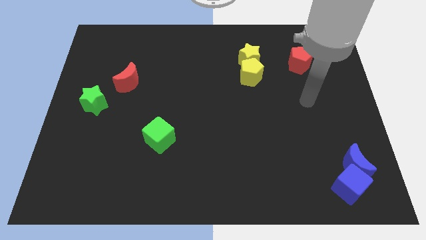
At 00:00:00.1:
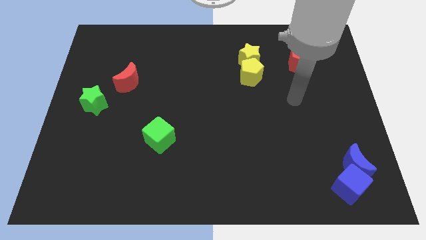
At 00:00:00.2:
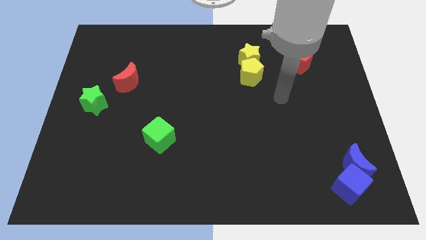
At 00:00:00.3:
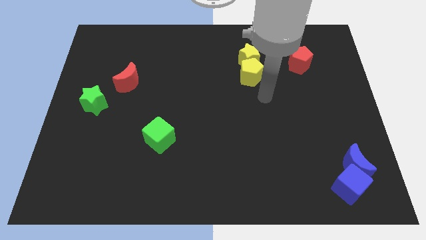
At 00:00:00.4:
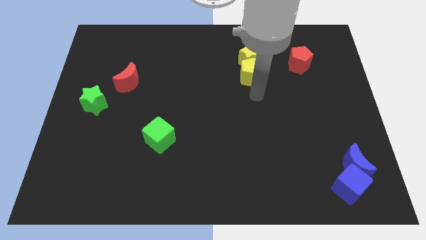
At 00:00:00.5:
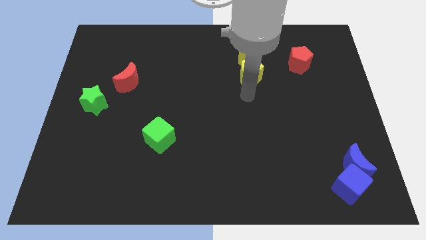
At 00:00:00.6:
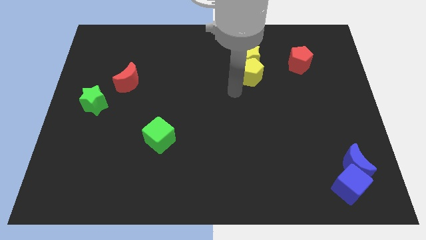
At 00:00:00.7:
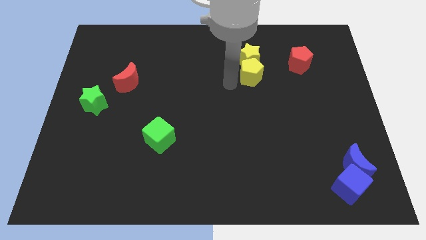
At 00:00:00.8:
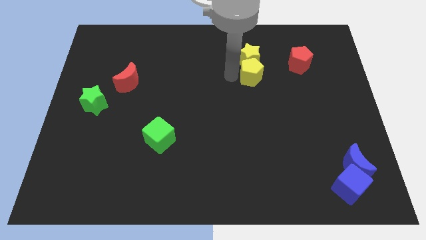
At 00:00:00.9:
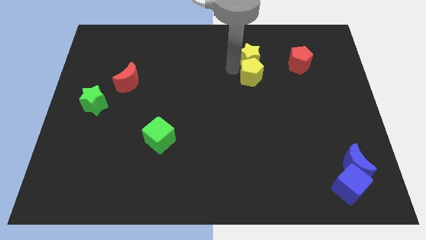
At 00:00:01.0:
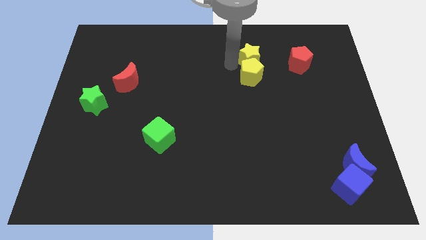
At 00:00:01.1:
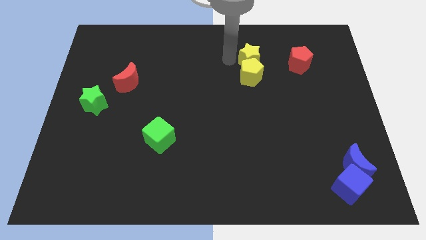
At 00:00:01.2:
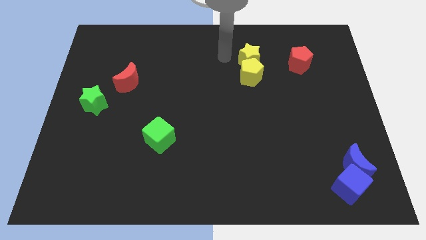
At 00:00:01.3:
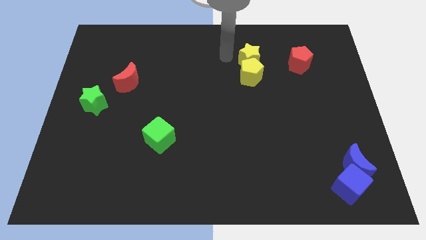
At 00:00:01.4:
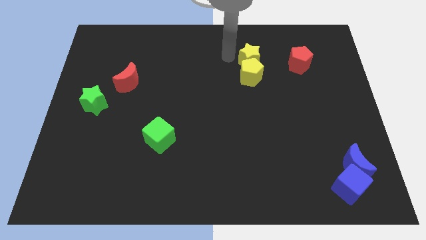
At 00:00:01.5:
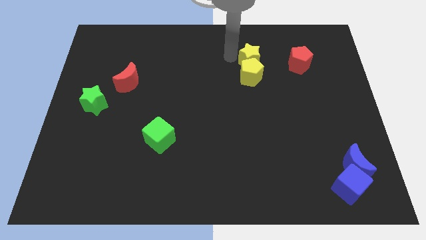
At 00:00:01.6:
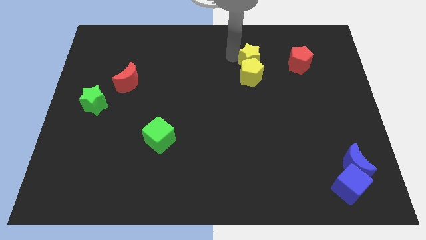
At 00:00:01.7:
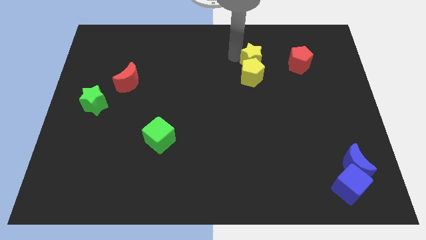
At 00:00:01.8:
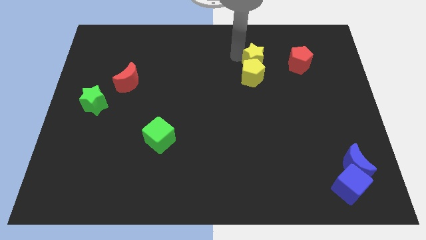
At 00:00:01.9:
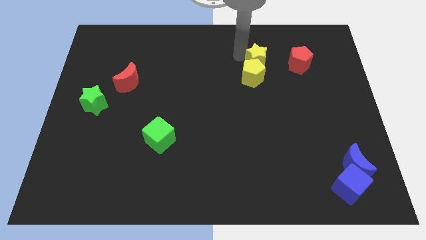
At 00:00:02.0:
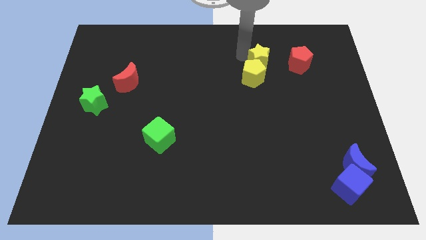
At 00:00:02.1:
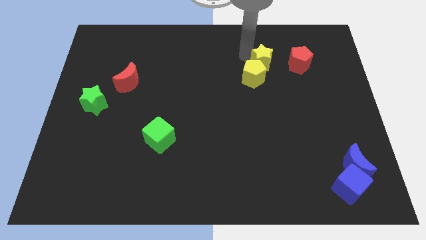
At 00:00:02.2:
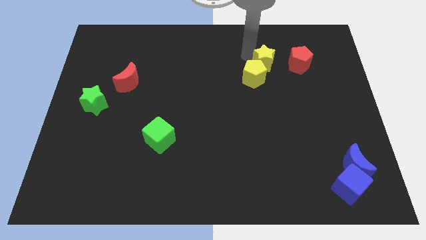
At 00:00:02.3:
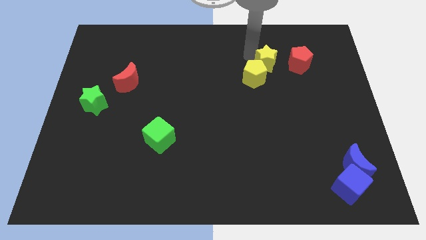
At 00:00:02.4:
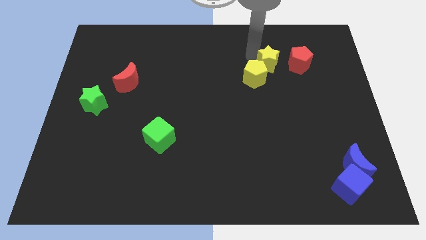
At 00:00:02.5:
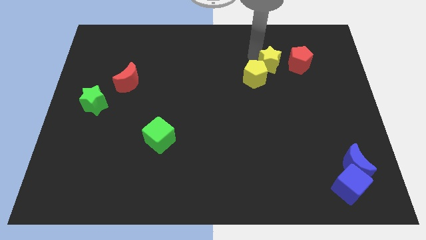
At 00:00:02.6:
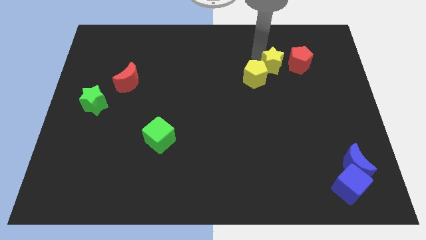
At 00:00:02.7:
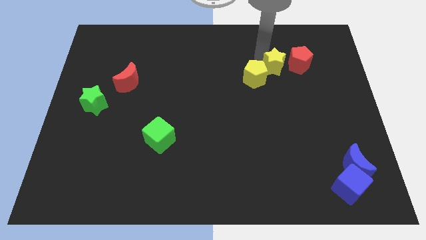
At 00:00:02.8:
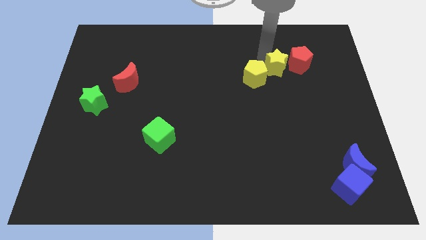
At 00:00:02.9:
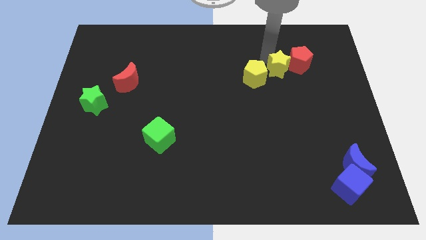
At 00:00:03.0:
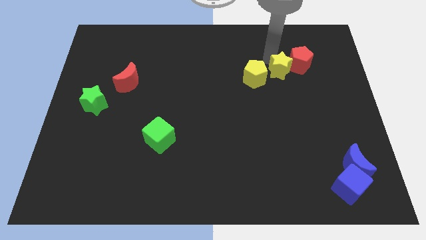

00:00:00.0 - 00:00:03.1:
slightly push the yellow star down and to the right diagonally

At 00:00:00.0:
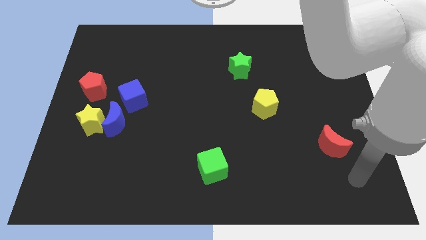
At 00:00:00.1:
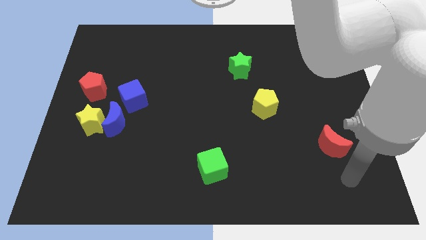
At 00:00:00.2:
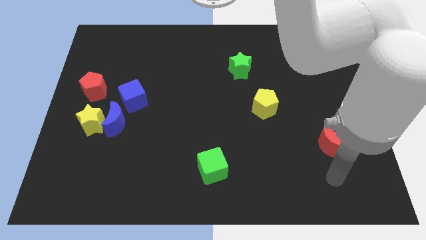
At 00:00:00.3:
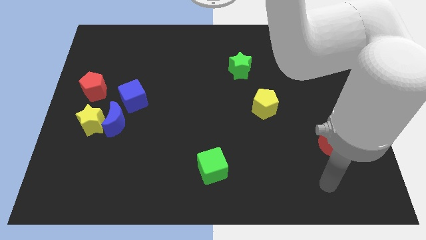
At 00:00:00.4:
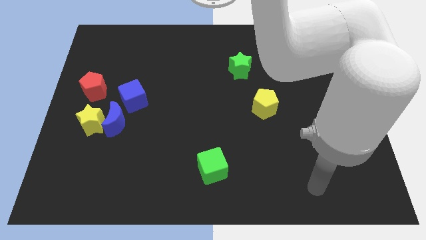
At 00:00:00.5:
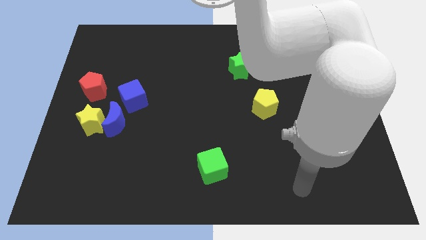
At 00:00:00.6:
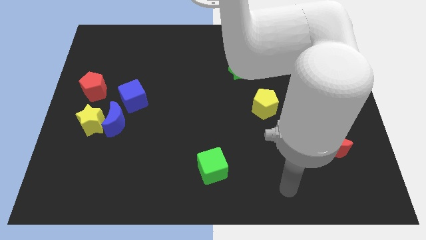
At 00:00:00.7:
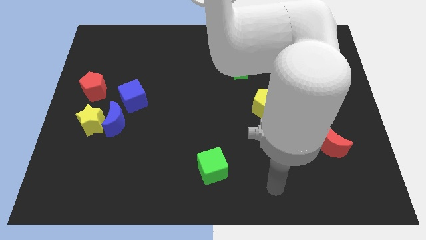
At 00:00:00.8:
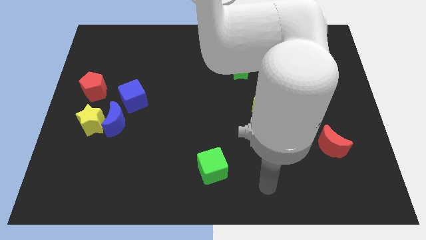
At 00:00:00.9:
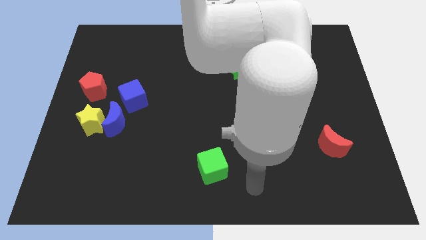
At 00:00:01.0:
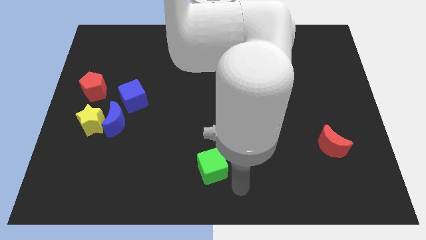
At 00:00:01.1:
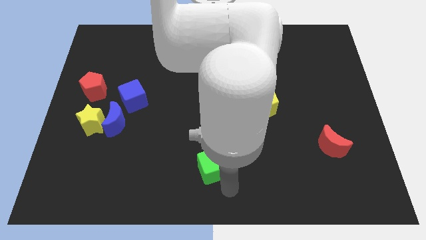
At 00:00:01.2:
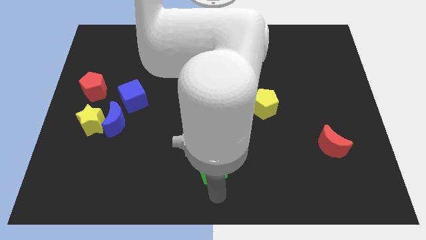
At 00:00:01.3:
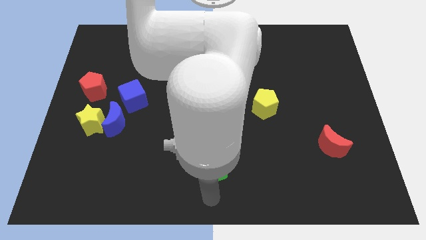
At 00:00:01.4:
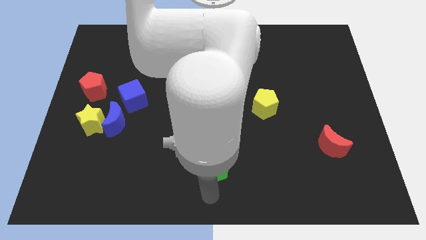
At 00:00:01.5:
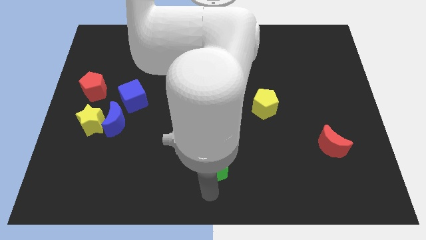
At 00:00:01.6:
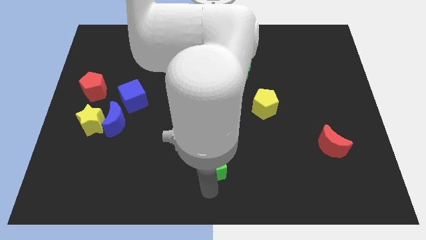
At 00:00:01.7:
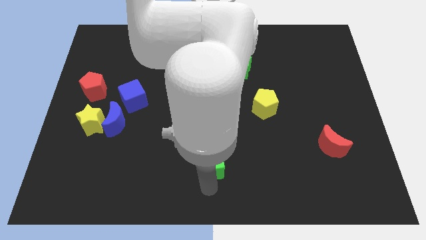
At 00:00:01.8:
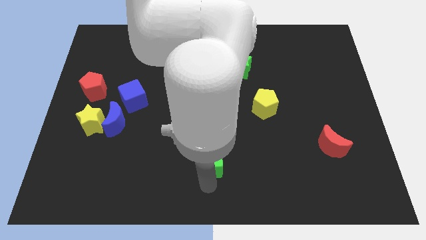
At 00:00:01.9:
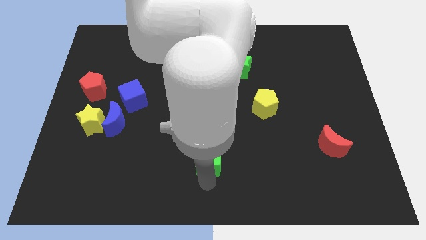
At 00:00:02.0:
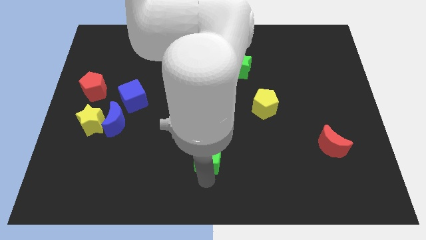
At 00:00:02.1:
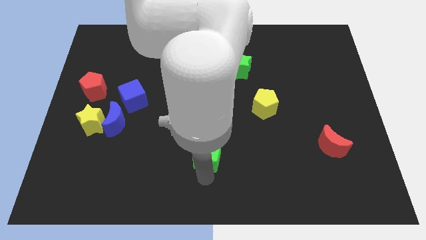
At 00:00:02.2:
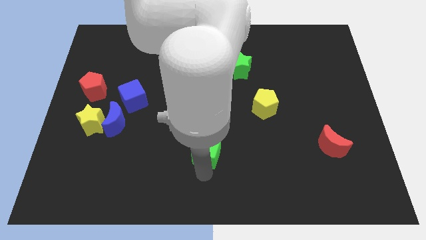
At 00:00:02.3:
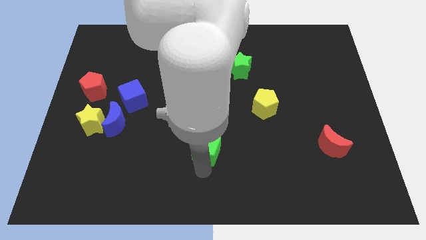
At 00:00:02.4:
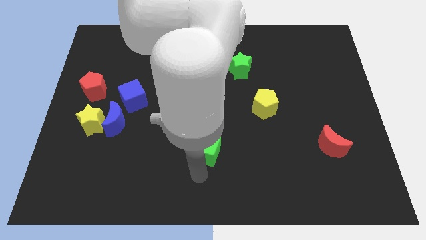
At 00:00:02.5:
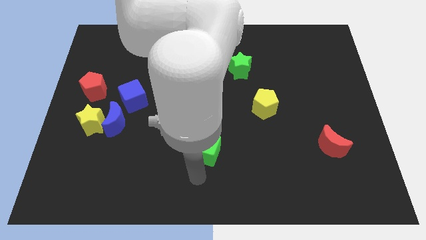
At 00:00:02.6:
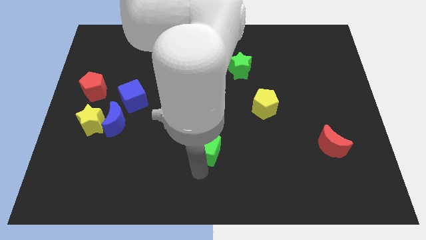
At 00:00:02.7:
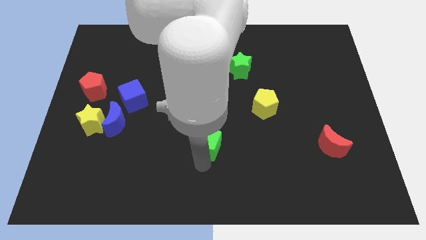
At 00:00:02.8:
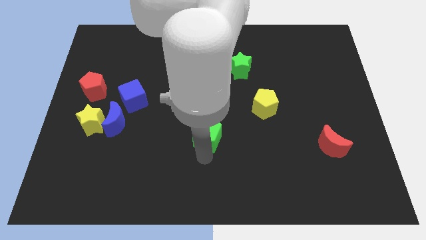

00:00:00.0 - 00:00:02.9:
push the green cube up a little

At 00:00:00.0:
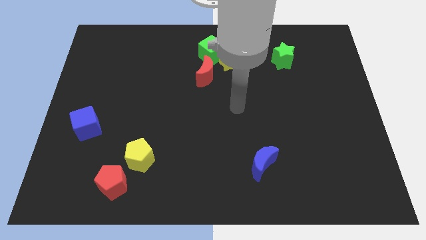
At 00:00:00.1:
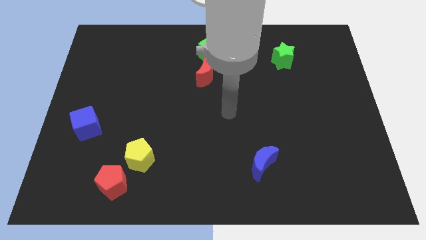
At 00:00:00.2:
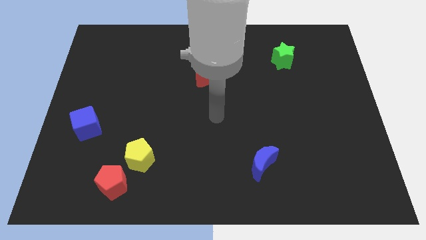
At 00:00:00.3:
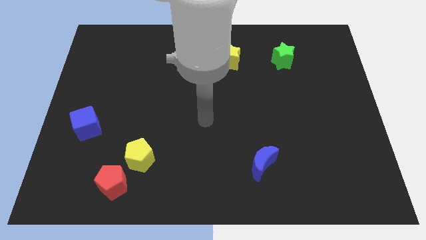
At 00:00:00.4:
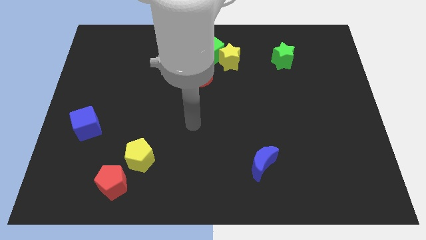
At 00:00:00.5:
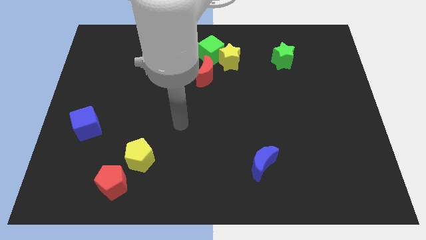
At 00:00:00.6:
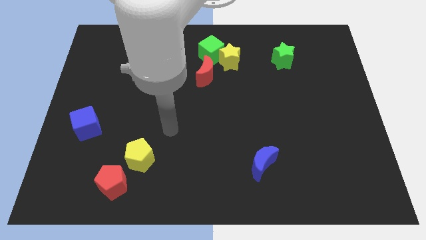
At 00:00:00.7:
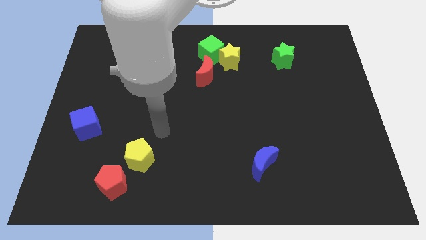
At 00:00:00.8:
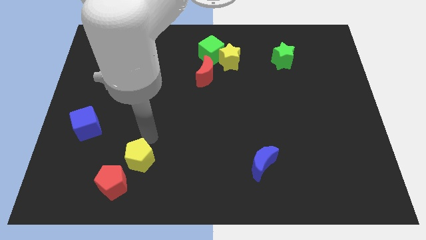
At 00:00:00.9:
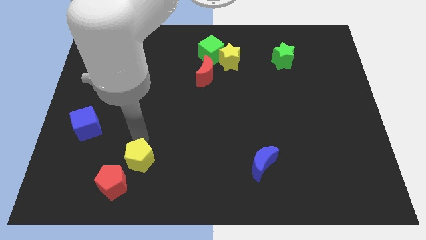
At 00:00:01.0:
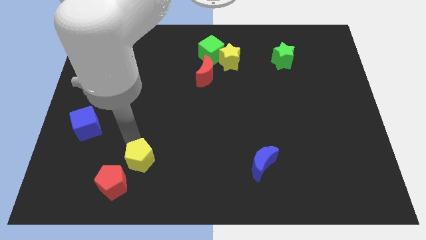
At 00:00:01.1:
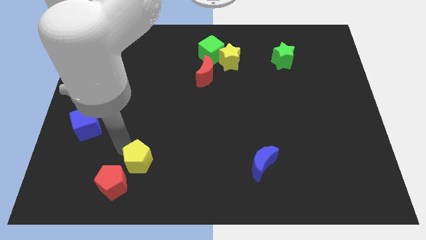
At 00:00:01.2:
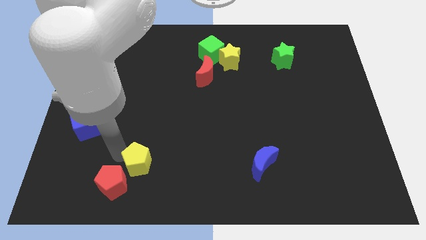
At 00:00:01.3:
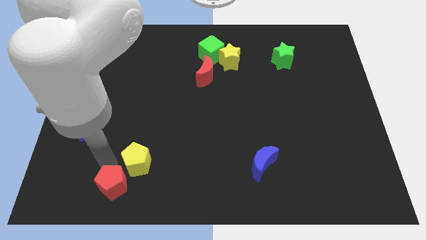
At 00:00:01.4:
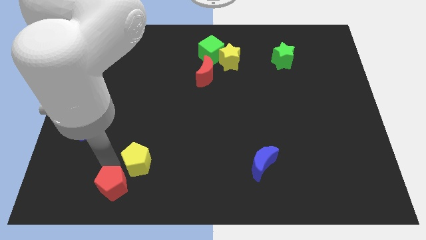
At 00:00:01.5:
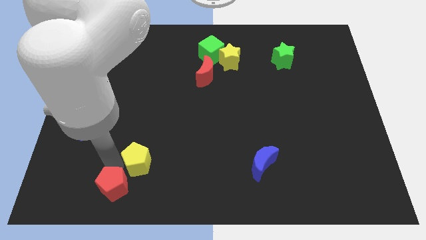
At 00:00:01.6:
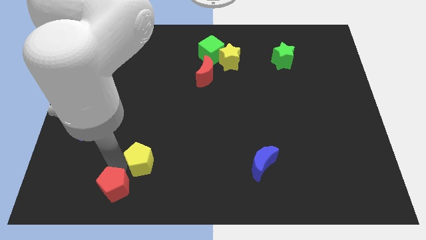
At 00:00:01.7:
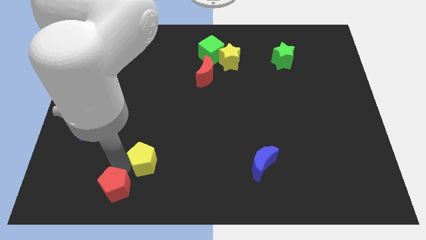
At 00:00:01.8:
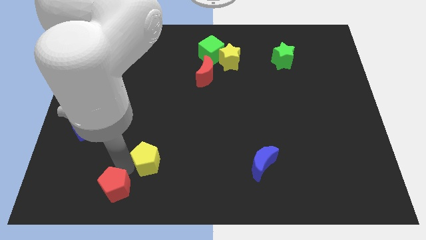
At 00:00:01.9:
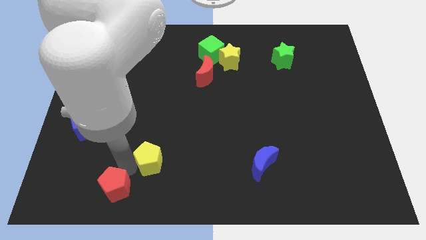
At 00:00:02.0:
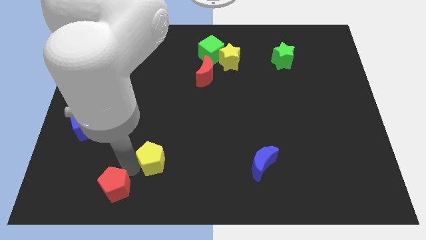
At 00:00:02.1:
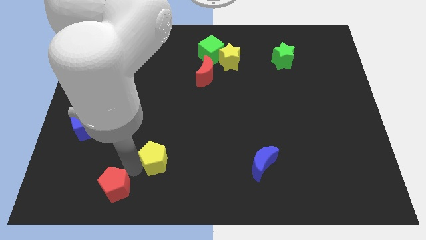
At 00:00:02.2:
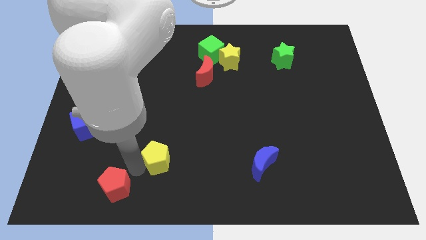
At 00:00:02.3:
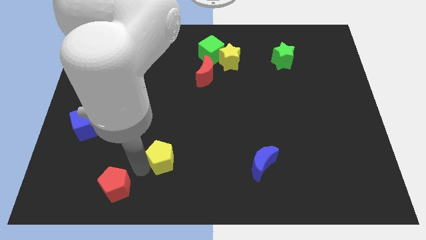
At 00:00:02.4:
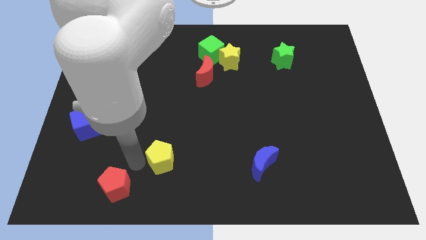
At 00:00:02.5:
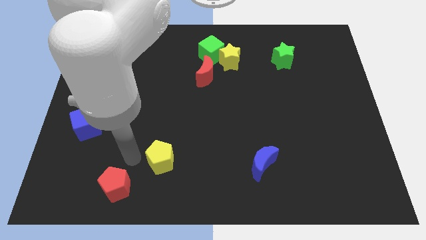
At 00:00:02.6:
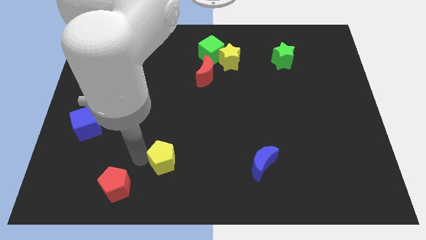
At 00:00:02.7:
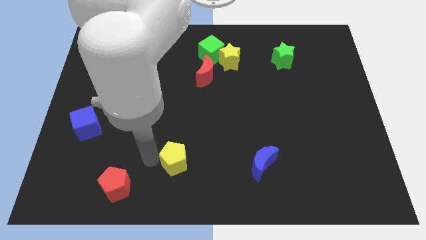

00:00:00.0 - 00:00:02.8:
push the yellow pentagon right a little bit
